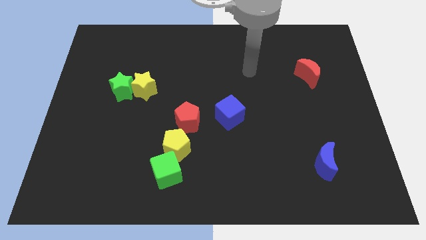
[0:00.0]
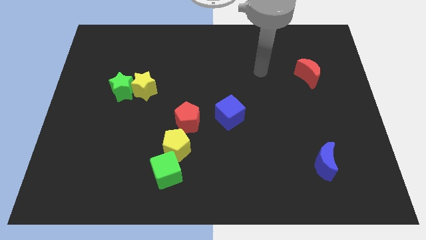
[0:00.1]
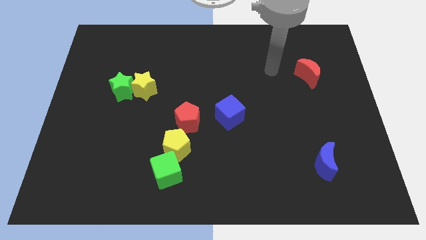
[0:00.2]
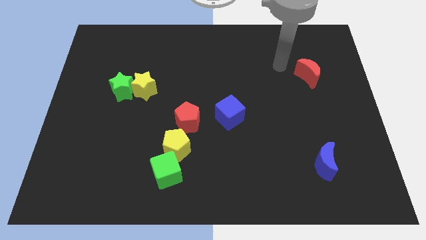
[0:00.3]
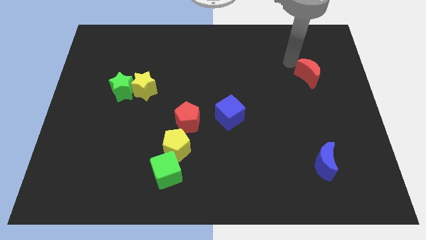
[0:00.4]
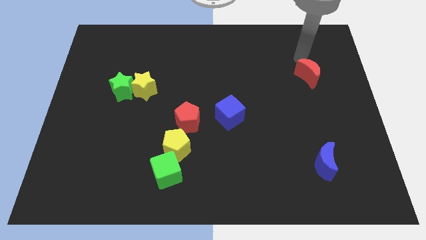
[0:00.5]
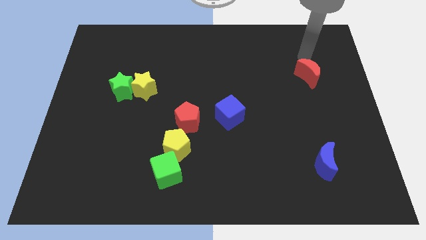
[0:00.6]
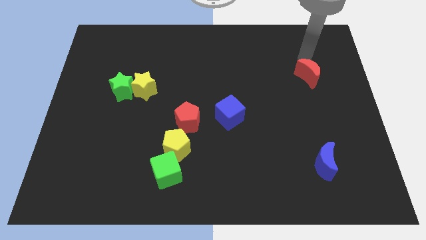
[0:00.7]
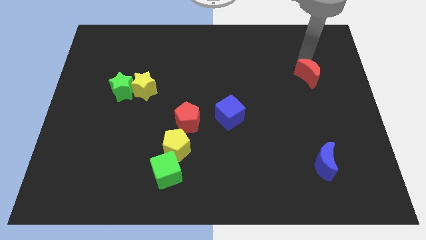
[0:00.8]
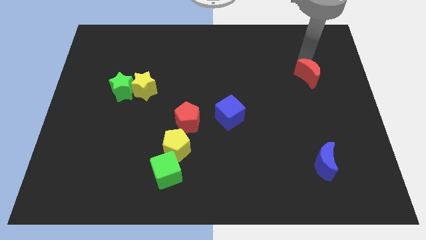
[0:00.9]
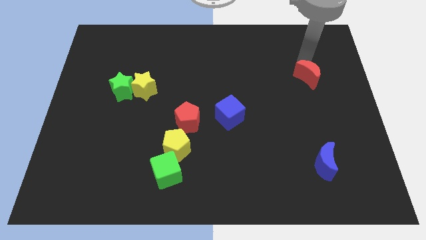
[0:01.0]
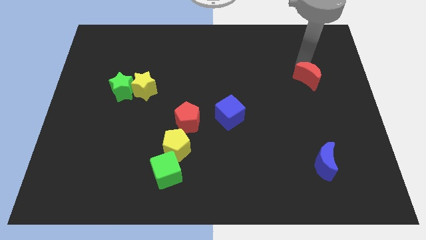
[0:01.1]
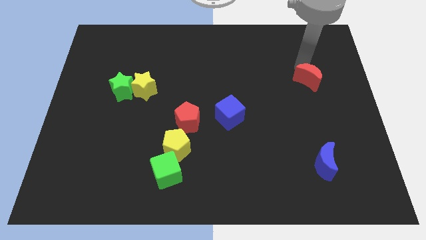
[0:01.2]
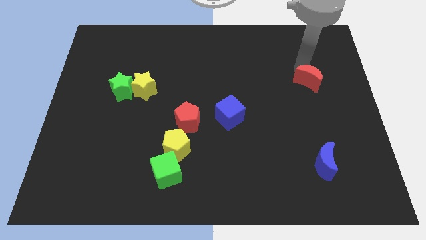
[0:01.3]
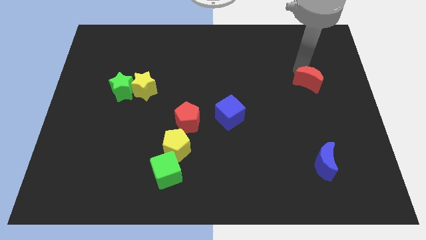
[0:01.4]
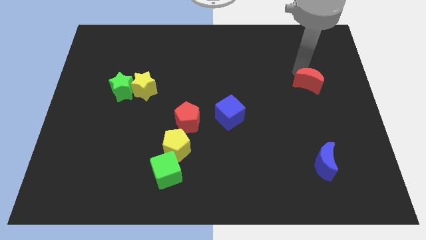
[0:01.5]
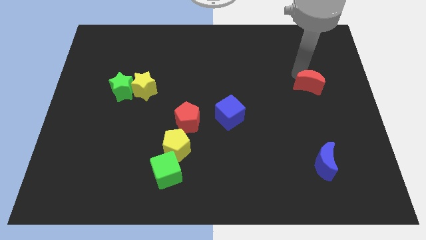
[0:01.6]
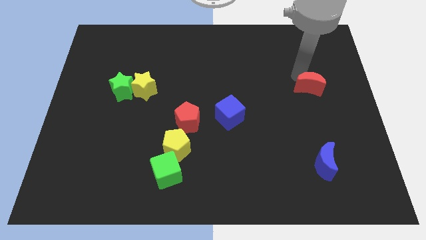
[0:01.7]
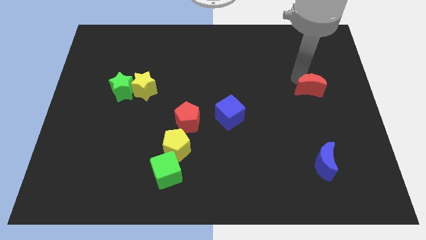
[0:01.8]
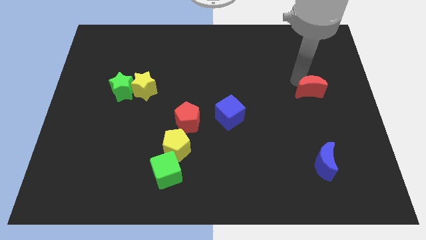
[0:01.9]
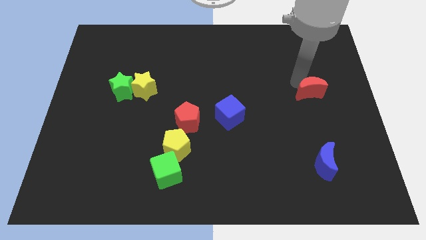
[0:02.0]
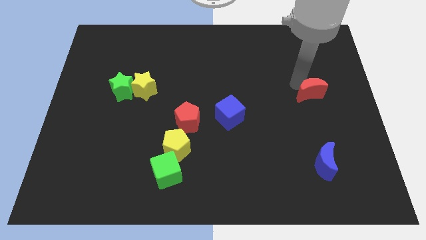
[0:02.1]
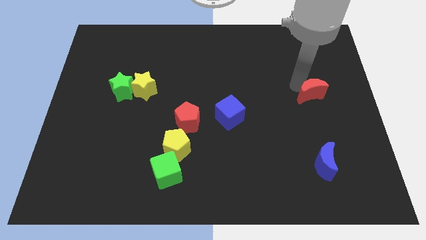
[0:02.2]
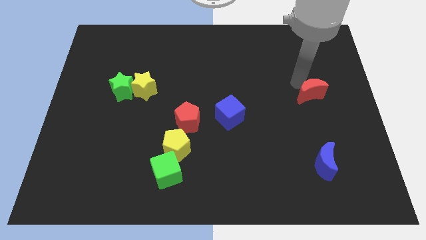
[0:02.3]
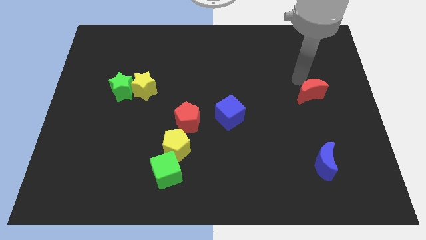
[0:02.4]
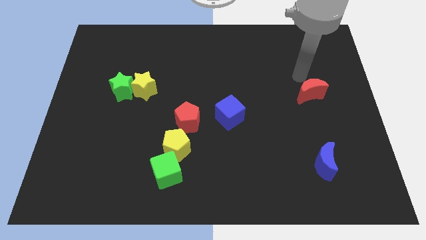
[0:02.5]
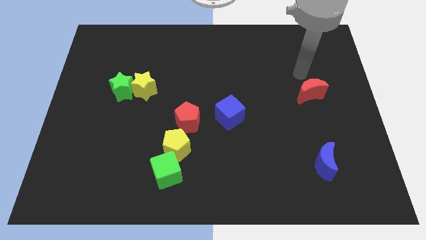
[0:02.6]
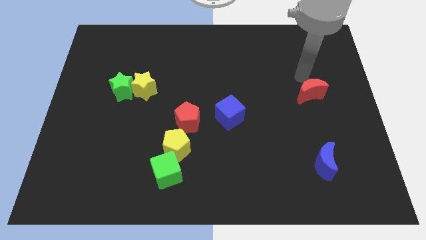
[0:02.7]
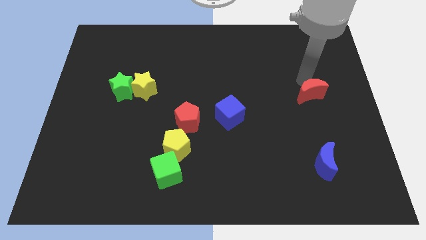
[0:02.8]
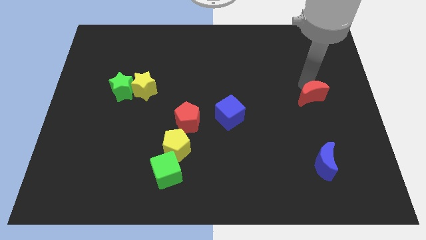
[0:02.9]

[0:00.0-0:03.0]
slide the red moon slightly downwards

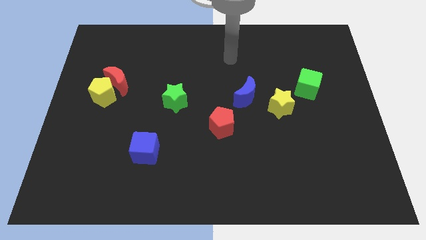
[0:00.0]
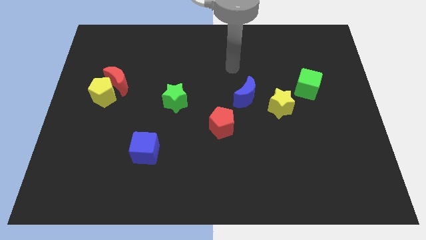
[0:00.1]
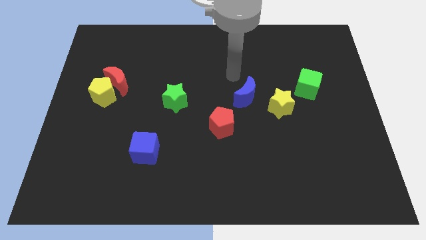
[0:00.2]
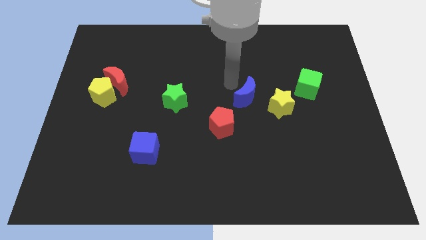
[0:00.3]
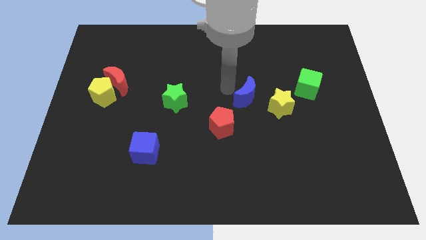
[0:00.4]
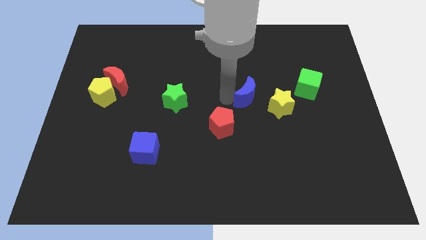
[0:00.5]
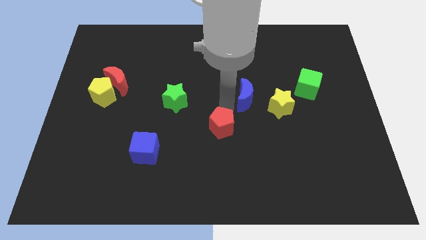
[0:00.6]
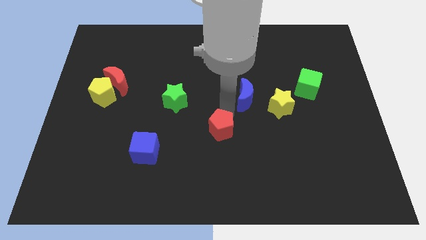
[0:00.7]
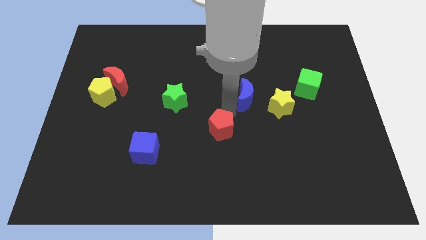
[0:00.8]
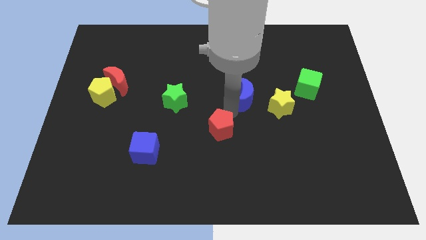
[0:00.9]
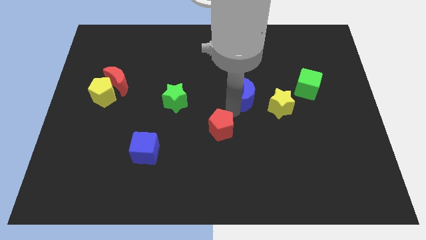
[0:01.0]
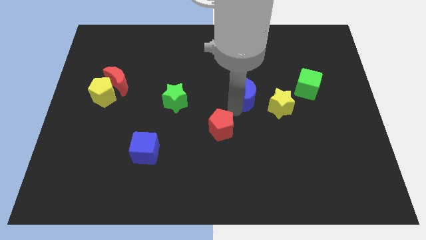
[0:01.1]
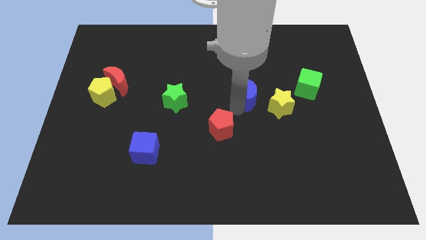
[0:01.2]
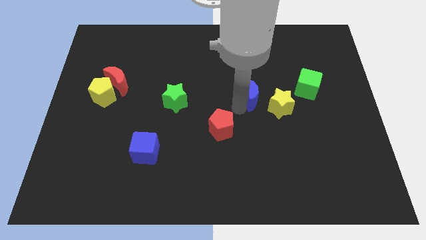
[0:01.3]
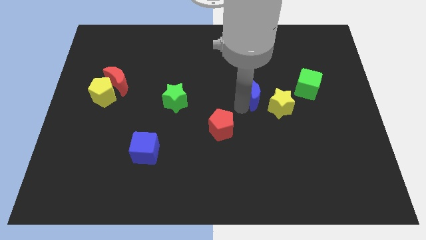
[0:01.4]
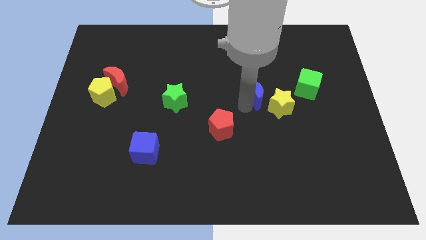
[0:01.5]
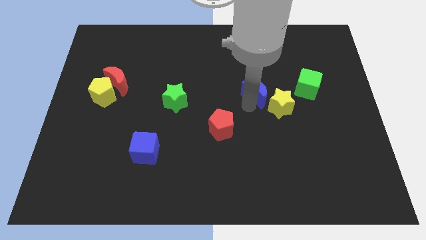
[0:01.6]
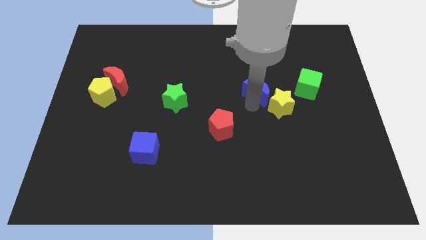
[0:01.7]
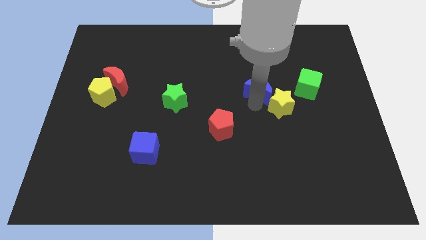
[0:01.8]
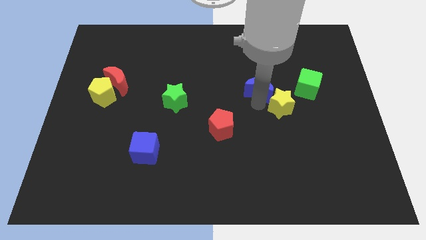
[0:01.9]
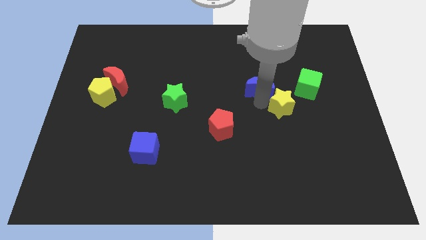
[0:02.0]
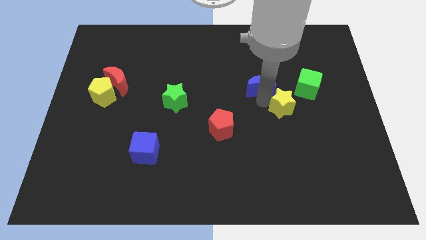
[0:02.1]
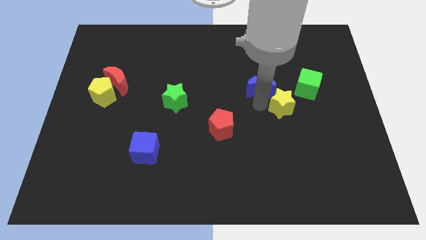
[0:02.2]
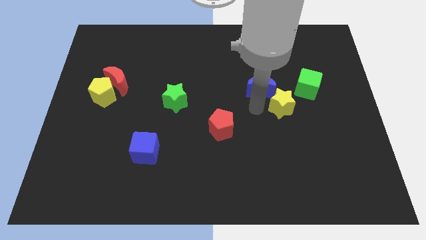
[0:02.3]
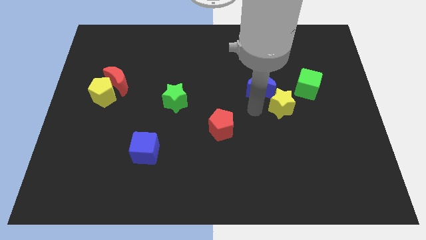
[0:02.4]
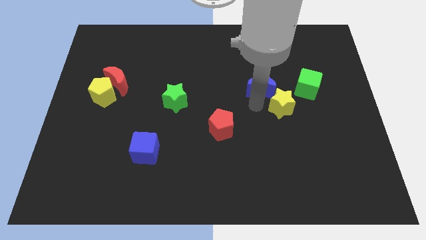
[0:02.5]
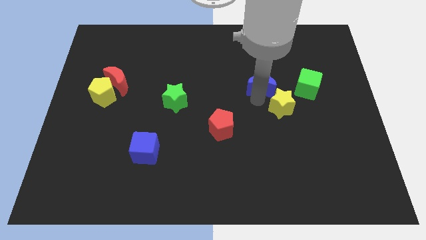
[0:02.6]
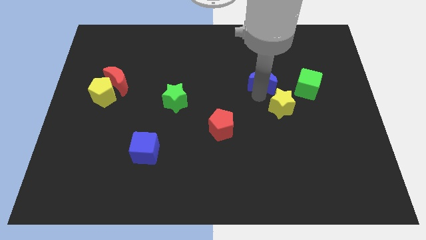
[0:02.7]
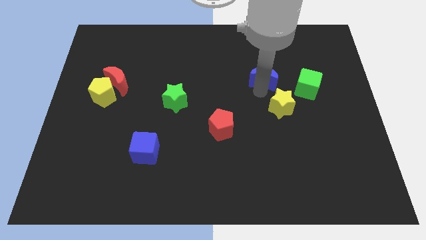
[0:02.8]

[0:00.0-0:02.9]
slightly push the blue moon upwards and right diagonally

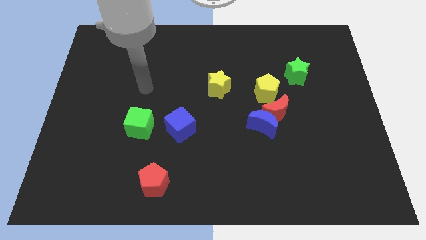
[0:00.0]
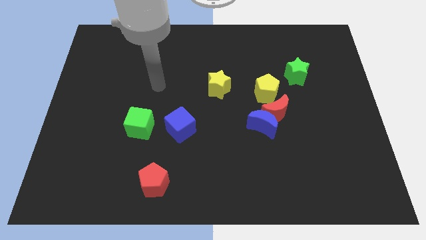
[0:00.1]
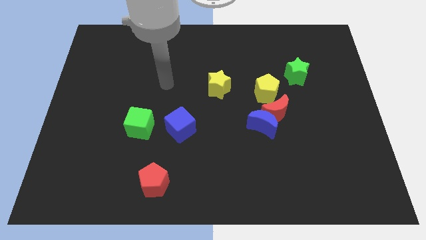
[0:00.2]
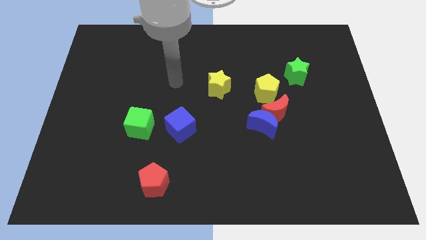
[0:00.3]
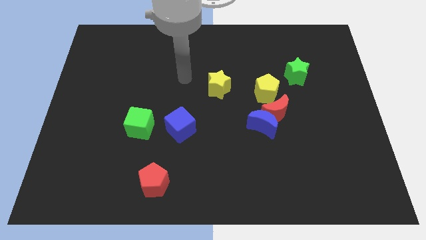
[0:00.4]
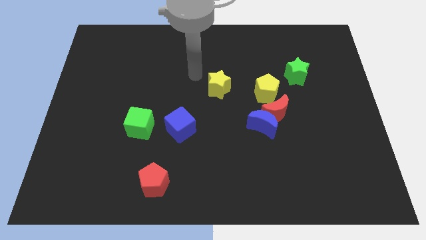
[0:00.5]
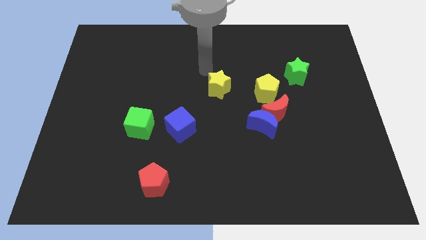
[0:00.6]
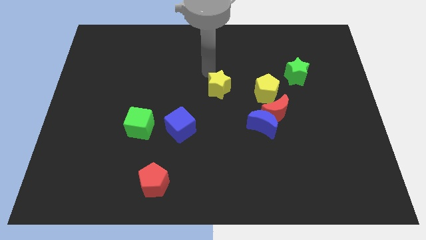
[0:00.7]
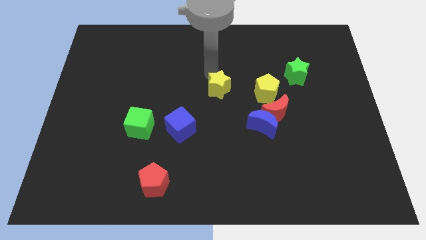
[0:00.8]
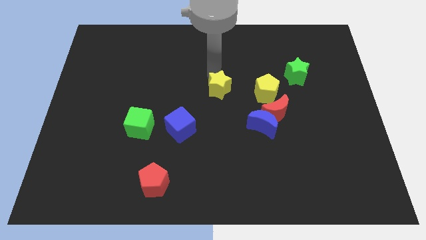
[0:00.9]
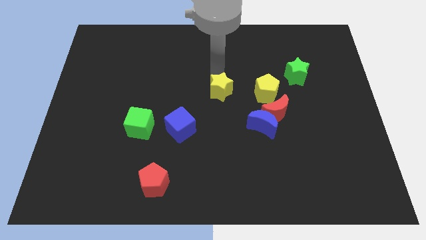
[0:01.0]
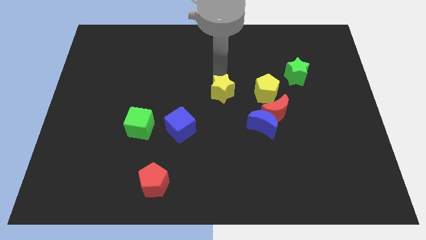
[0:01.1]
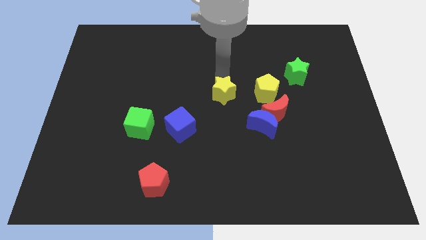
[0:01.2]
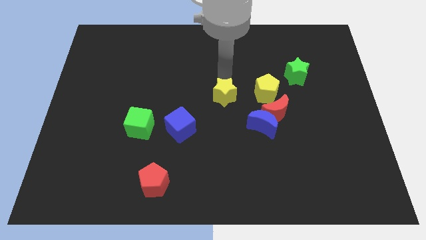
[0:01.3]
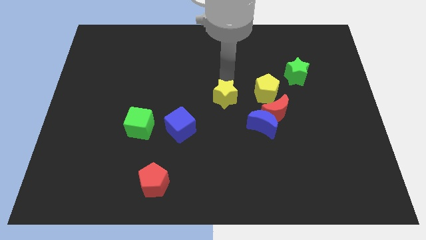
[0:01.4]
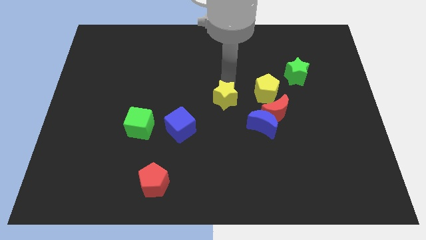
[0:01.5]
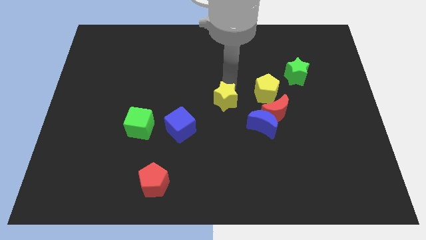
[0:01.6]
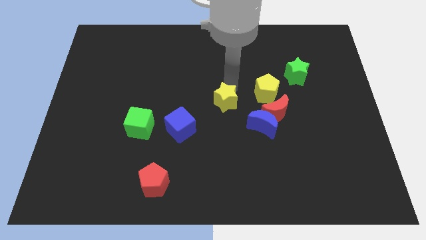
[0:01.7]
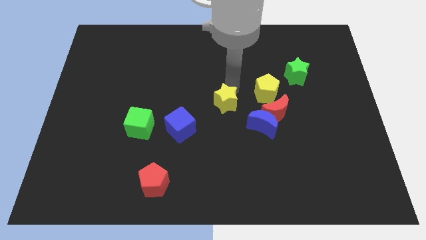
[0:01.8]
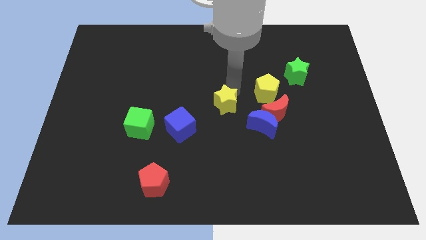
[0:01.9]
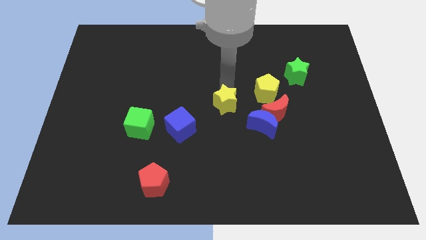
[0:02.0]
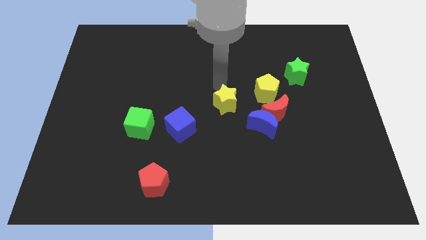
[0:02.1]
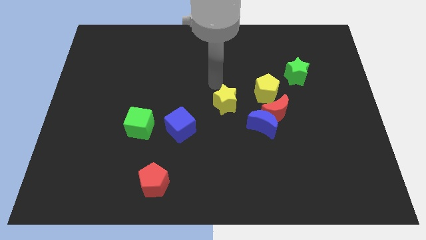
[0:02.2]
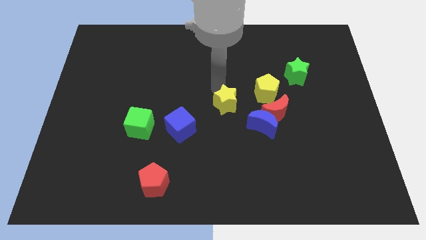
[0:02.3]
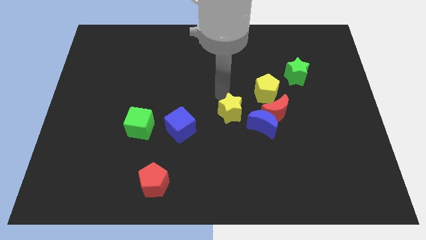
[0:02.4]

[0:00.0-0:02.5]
slightly move the yellow star diagonally downwards and to the right

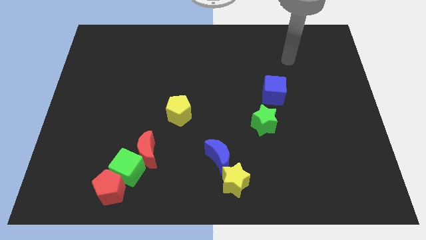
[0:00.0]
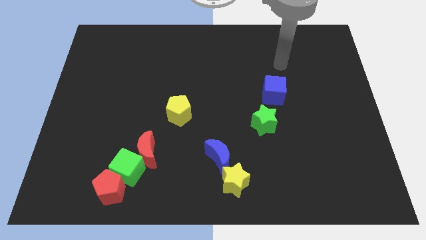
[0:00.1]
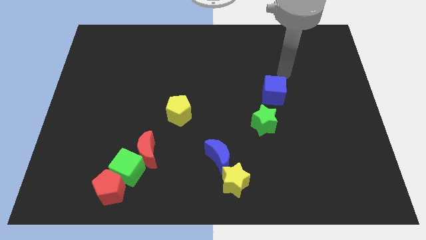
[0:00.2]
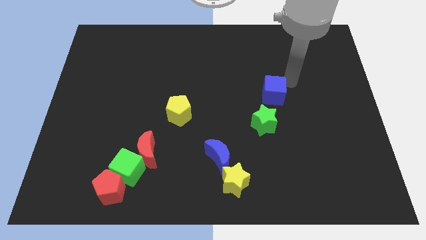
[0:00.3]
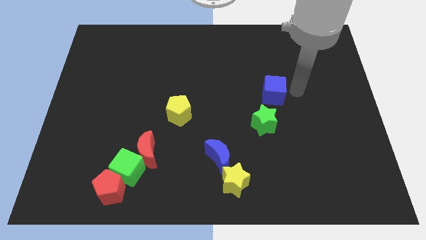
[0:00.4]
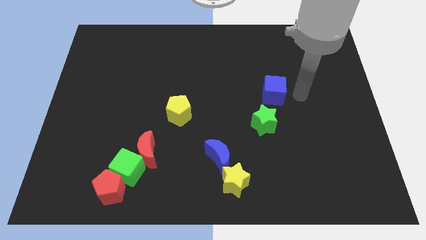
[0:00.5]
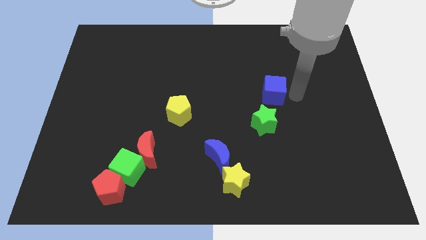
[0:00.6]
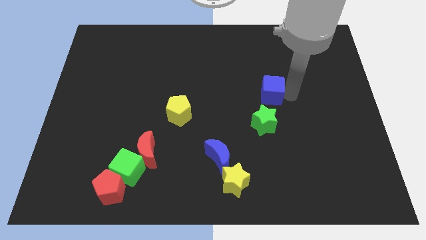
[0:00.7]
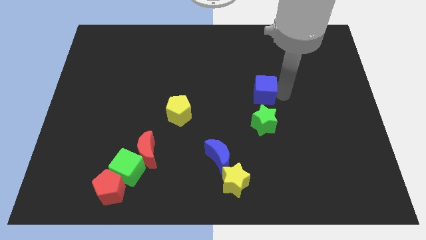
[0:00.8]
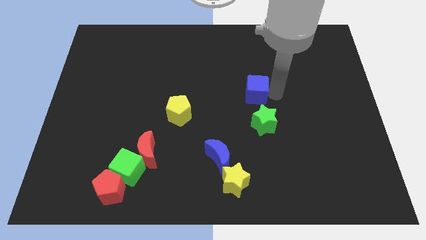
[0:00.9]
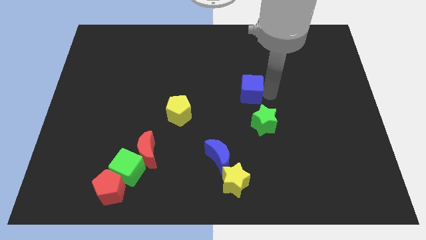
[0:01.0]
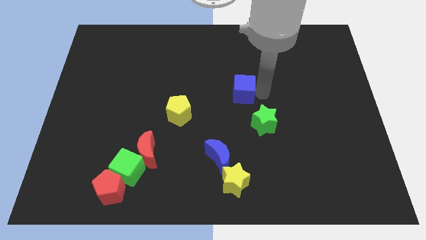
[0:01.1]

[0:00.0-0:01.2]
slide the blue cube somewhat left
